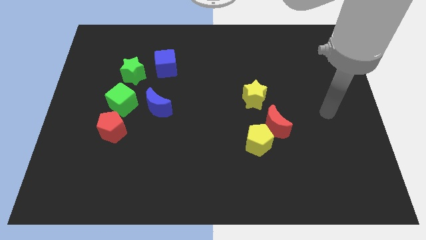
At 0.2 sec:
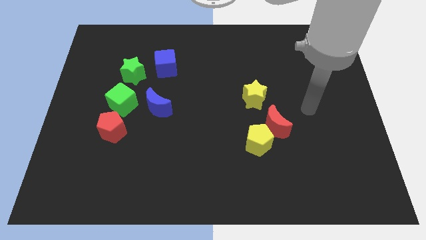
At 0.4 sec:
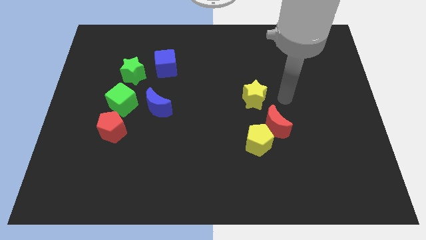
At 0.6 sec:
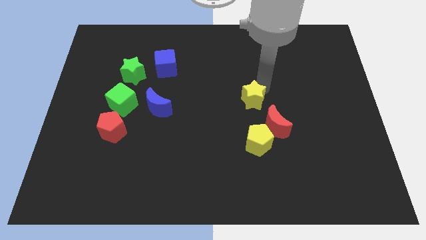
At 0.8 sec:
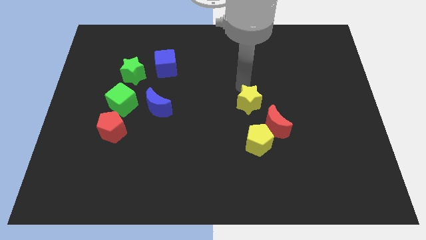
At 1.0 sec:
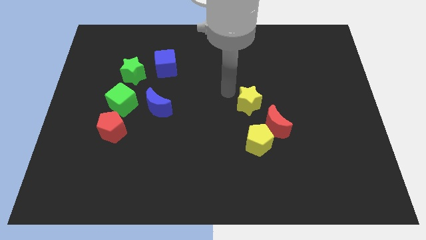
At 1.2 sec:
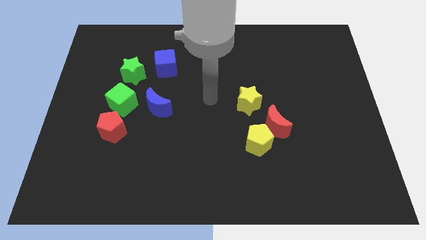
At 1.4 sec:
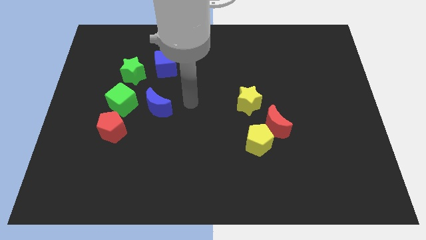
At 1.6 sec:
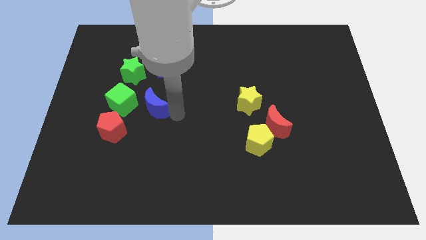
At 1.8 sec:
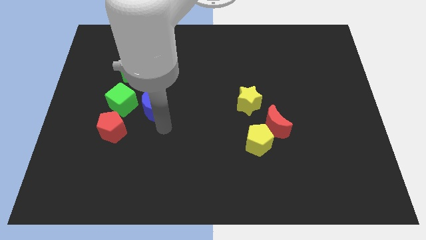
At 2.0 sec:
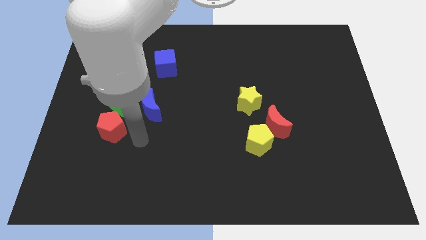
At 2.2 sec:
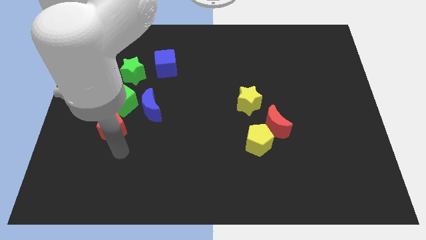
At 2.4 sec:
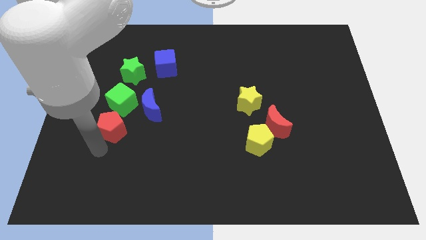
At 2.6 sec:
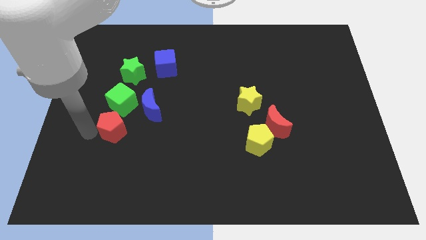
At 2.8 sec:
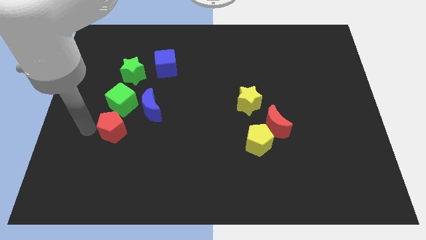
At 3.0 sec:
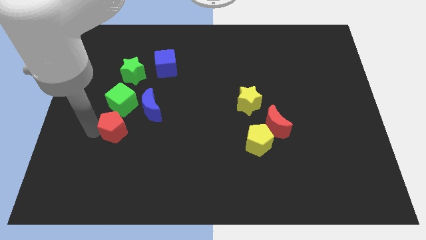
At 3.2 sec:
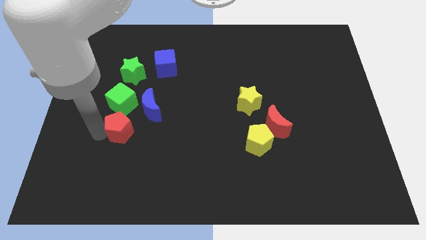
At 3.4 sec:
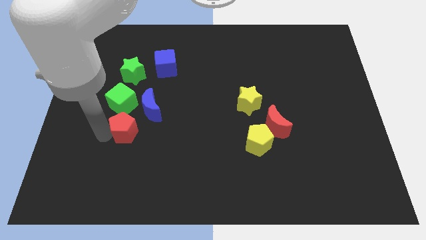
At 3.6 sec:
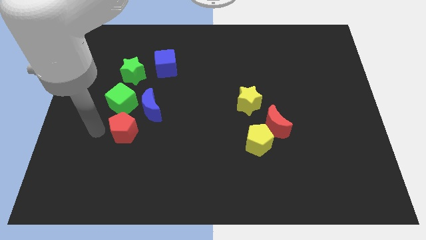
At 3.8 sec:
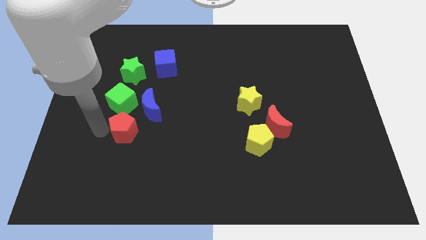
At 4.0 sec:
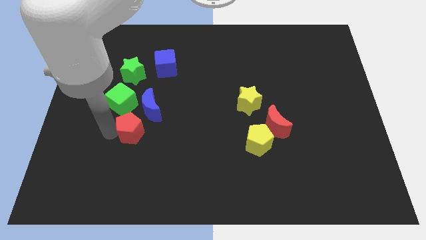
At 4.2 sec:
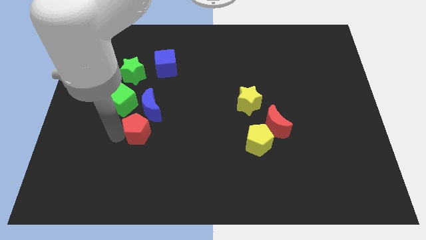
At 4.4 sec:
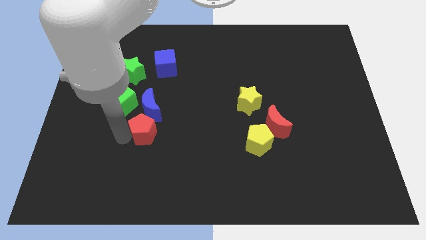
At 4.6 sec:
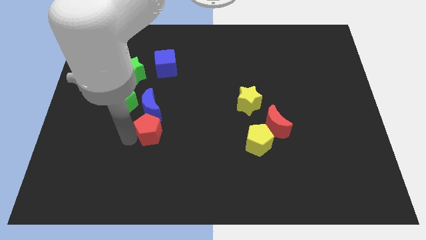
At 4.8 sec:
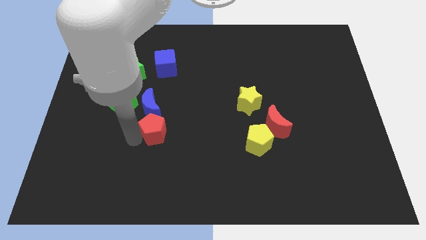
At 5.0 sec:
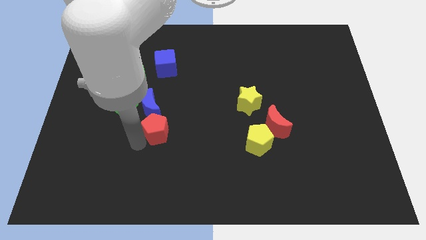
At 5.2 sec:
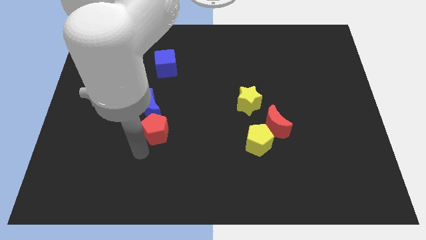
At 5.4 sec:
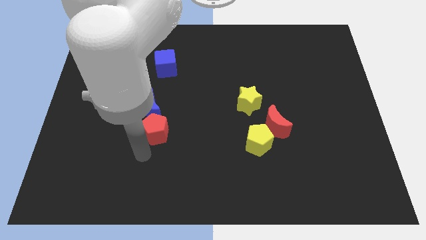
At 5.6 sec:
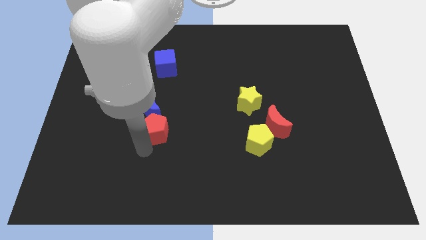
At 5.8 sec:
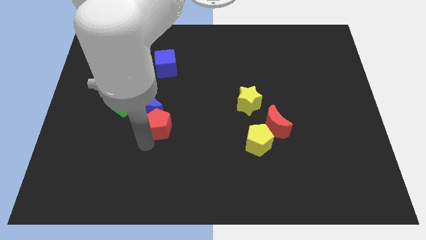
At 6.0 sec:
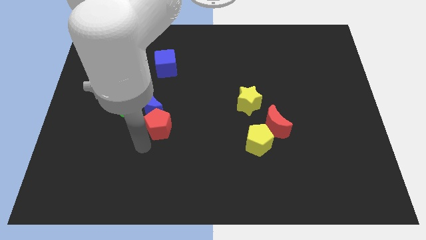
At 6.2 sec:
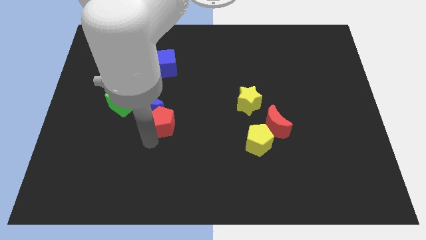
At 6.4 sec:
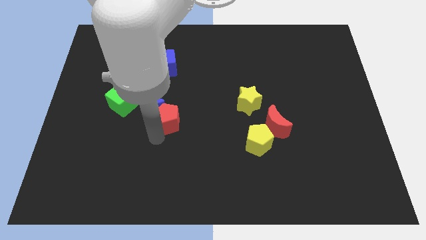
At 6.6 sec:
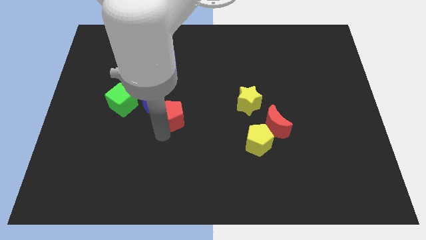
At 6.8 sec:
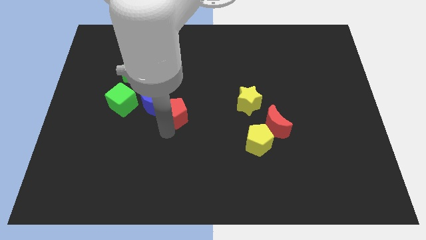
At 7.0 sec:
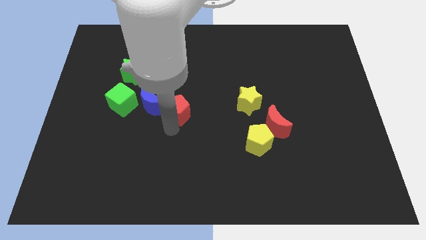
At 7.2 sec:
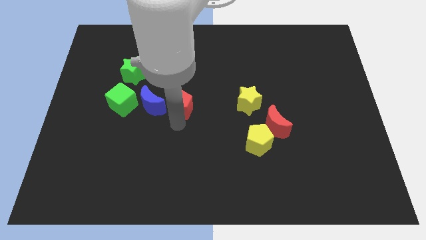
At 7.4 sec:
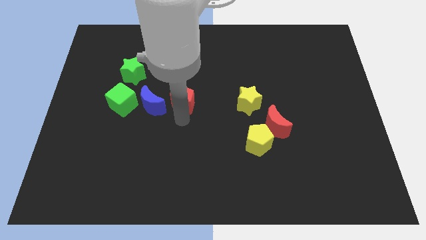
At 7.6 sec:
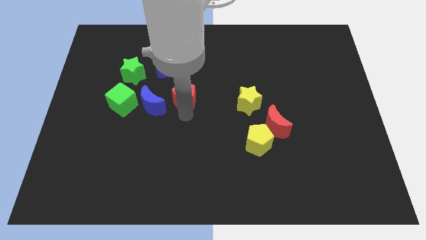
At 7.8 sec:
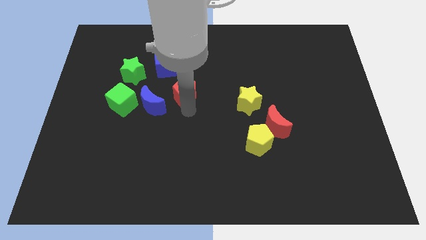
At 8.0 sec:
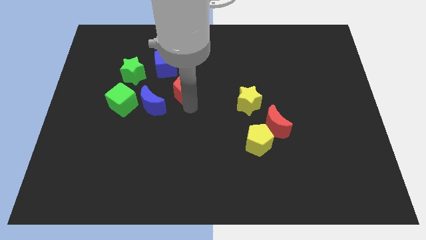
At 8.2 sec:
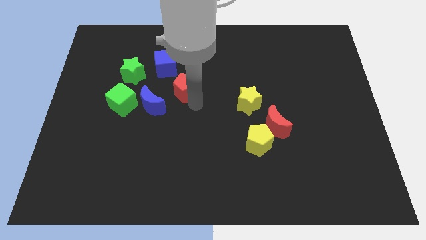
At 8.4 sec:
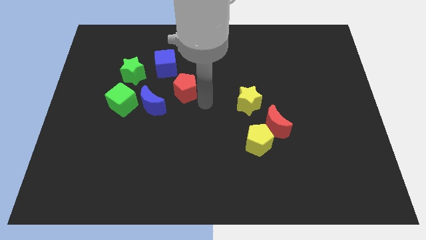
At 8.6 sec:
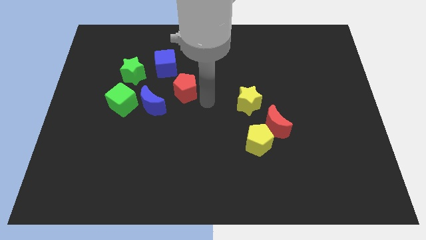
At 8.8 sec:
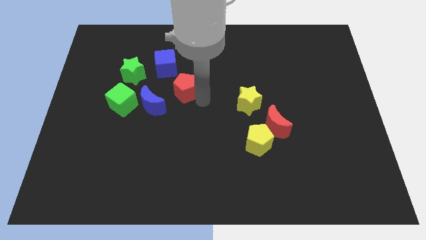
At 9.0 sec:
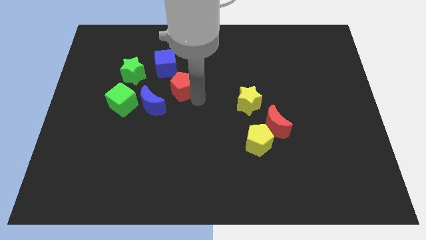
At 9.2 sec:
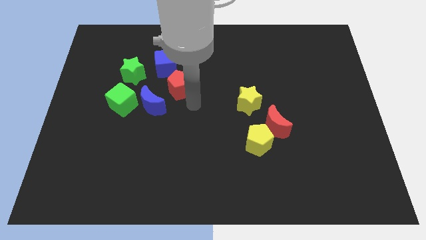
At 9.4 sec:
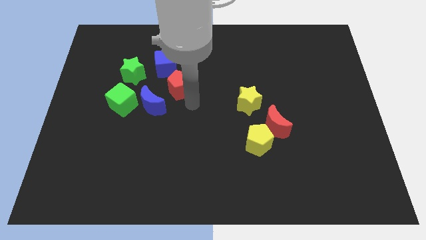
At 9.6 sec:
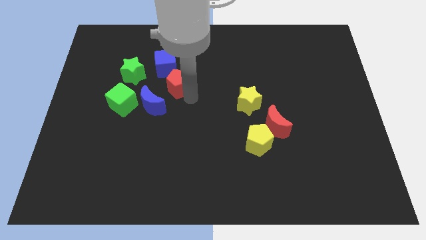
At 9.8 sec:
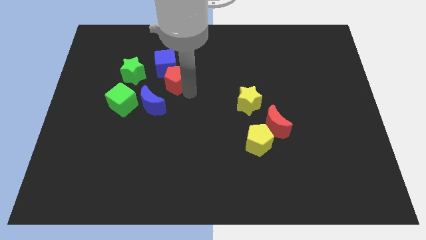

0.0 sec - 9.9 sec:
slide the red pentagon next to the blue cube

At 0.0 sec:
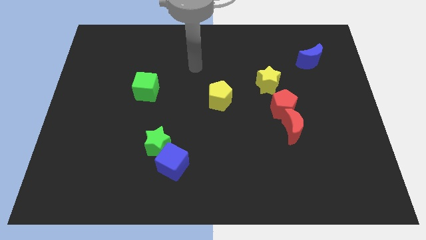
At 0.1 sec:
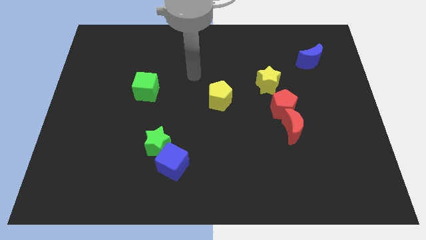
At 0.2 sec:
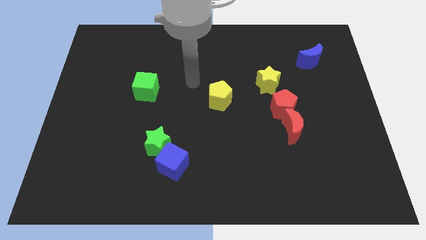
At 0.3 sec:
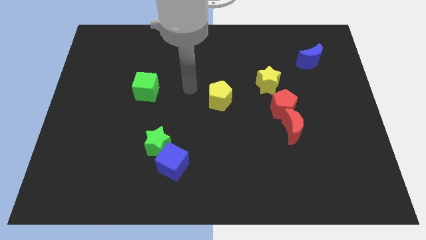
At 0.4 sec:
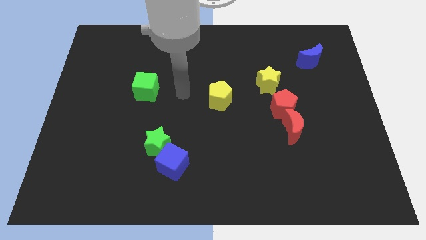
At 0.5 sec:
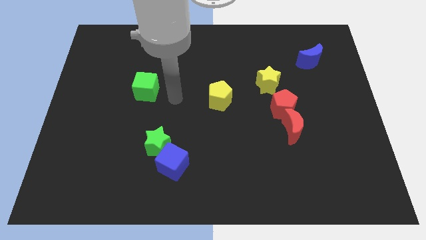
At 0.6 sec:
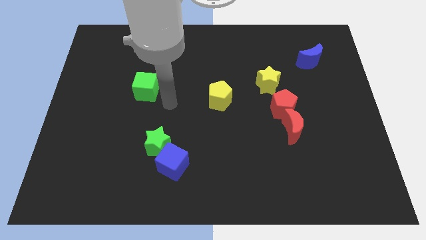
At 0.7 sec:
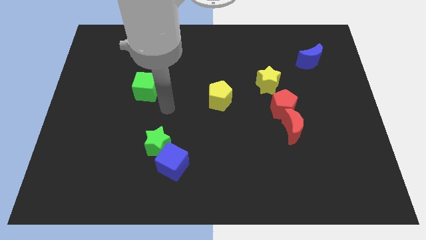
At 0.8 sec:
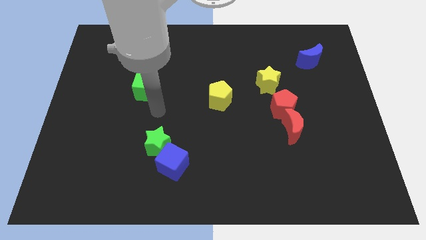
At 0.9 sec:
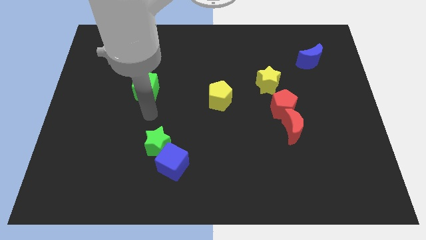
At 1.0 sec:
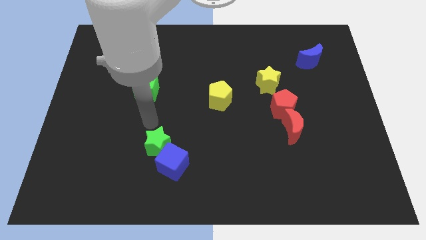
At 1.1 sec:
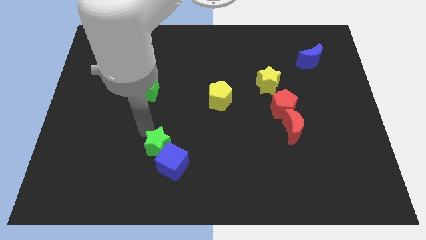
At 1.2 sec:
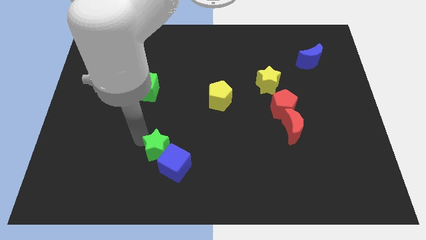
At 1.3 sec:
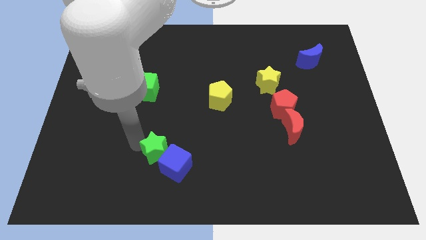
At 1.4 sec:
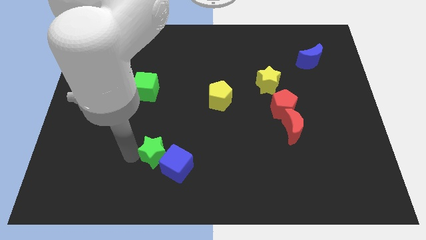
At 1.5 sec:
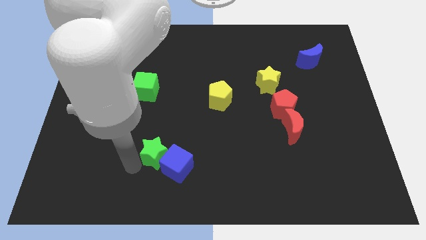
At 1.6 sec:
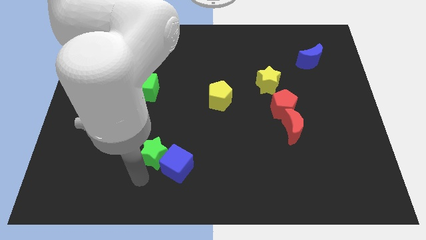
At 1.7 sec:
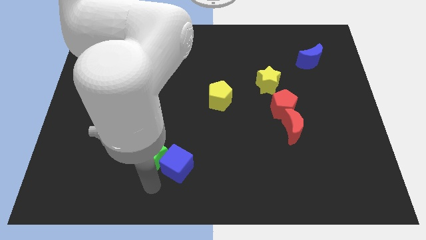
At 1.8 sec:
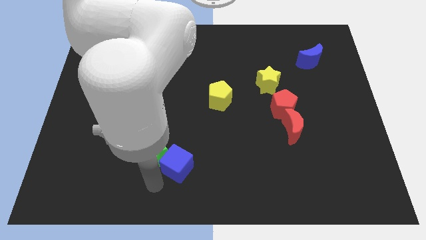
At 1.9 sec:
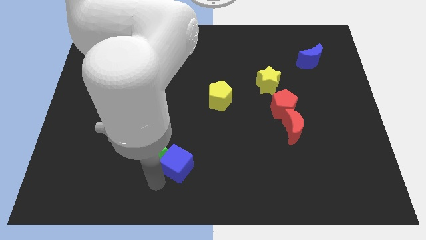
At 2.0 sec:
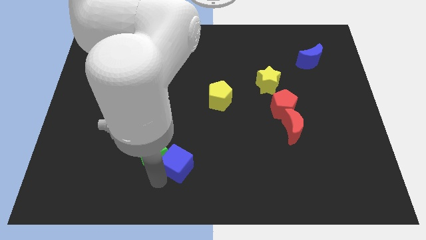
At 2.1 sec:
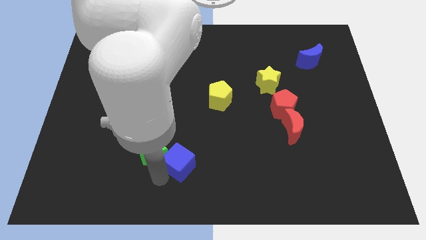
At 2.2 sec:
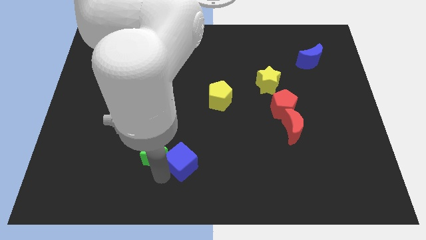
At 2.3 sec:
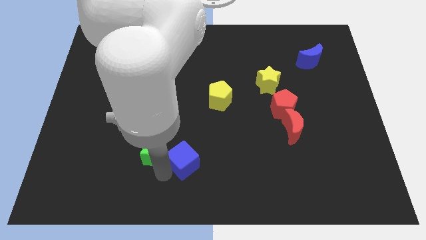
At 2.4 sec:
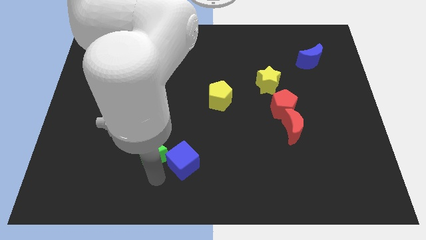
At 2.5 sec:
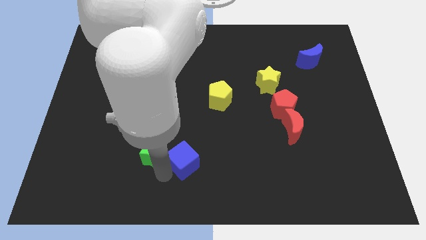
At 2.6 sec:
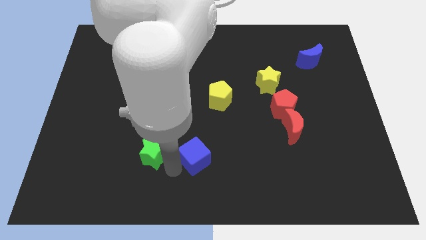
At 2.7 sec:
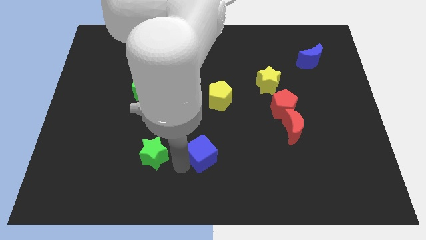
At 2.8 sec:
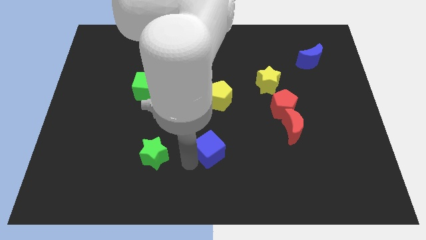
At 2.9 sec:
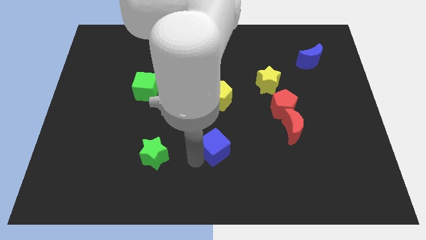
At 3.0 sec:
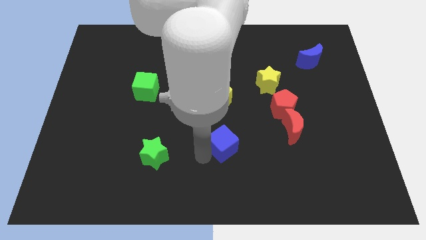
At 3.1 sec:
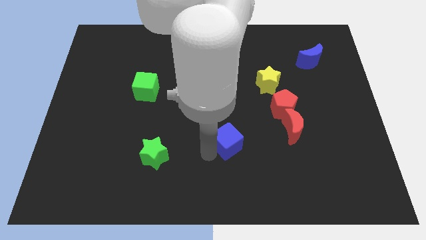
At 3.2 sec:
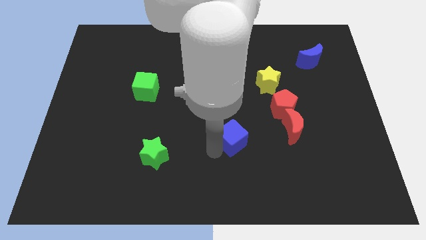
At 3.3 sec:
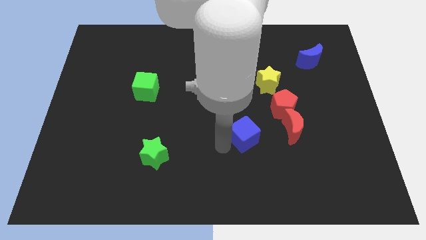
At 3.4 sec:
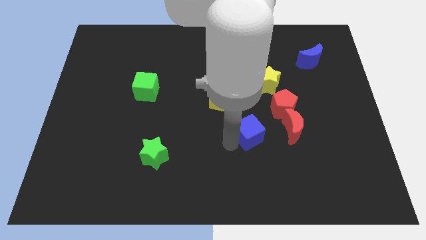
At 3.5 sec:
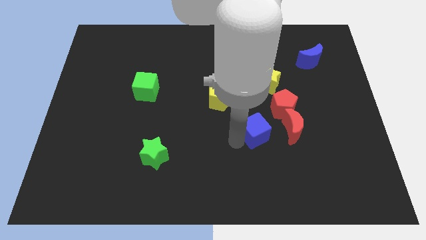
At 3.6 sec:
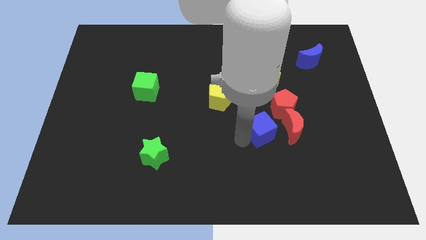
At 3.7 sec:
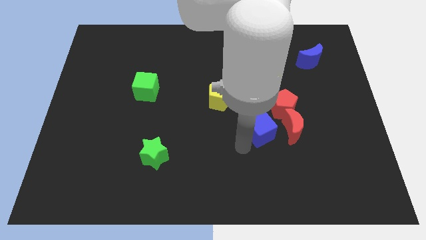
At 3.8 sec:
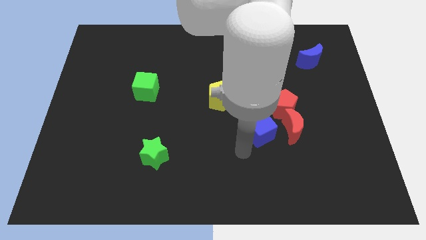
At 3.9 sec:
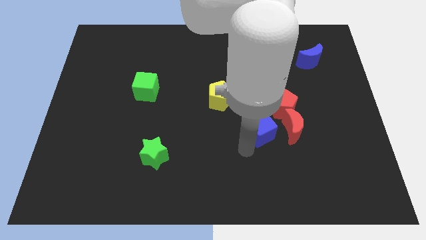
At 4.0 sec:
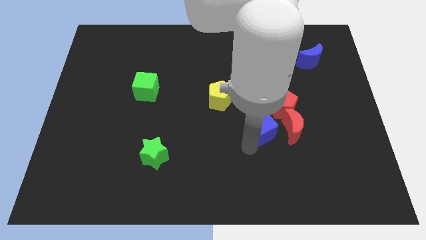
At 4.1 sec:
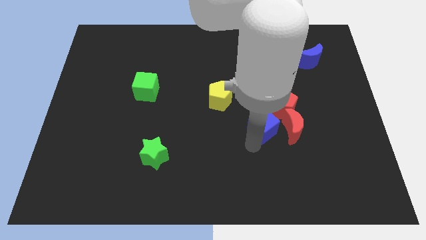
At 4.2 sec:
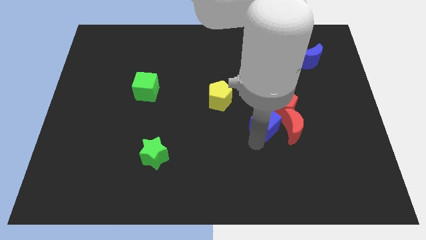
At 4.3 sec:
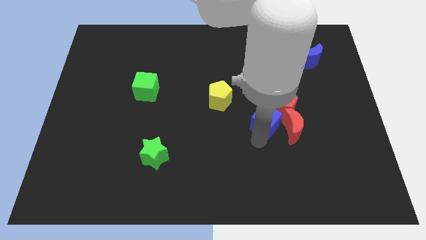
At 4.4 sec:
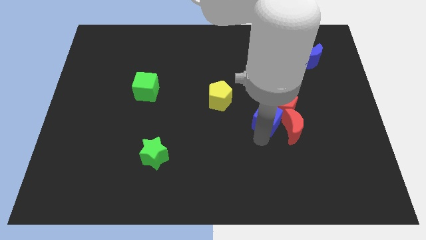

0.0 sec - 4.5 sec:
move the blue cube towards the red pentagon
